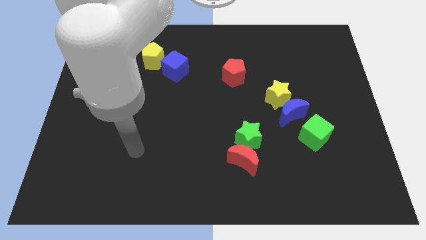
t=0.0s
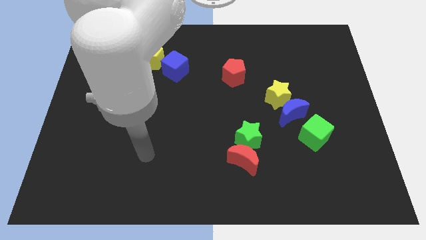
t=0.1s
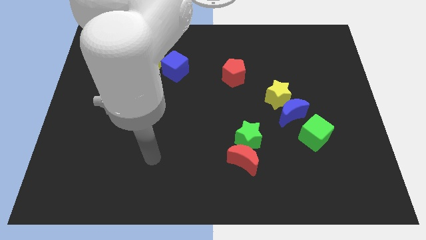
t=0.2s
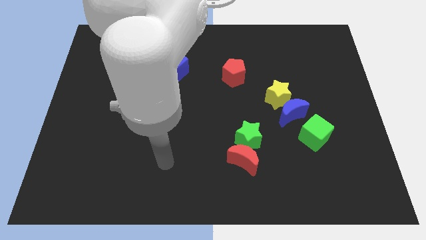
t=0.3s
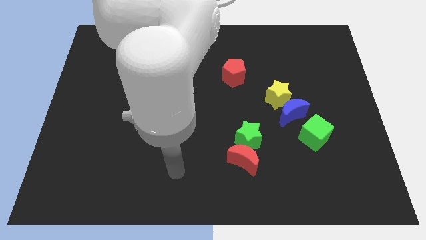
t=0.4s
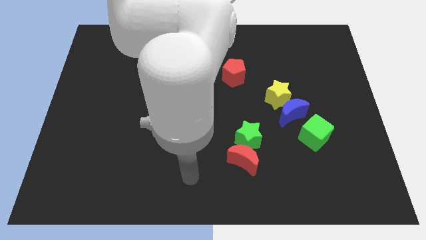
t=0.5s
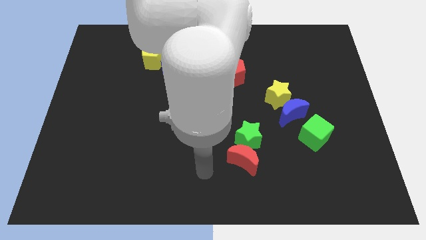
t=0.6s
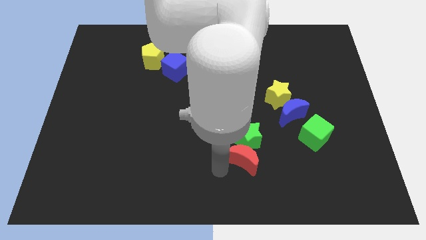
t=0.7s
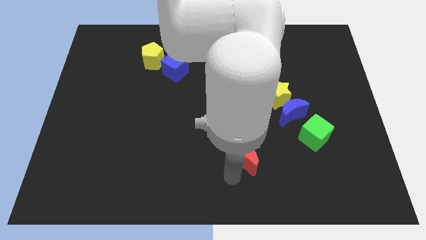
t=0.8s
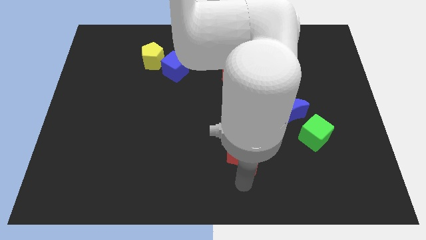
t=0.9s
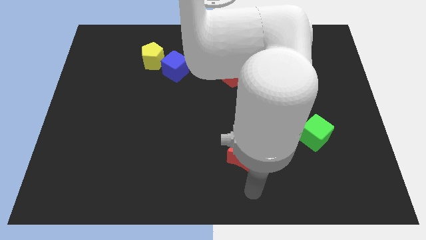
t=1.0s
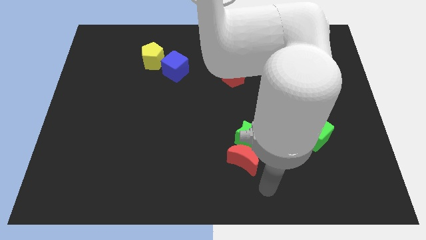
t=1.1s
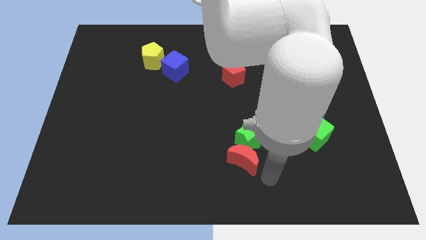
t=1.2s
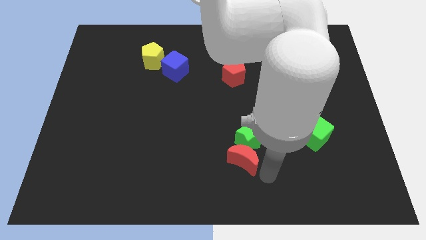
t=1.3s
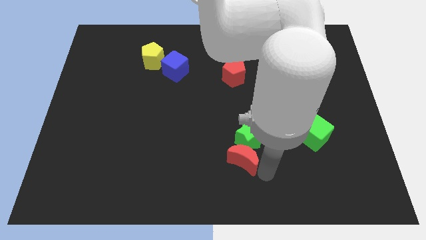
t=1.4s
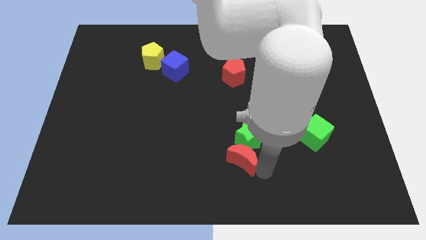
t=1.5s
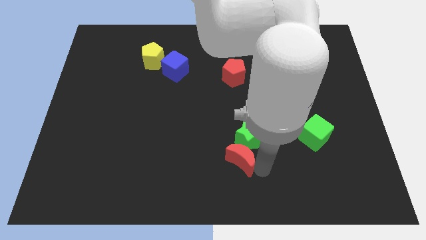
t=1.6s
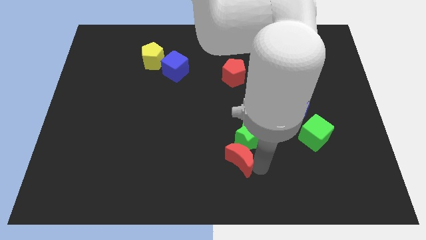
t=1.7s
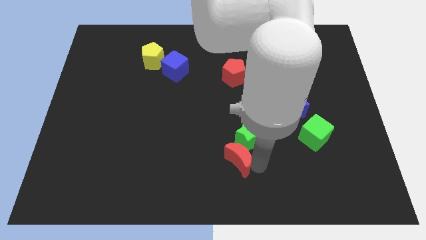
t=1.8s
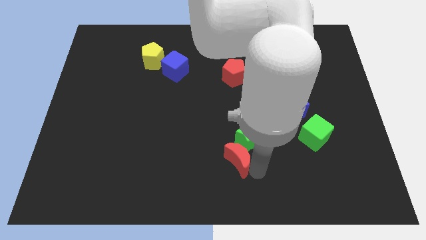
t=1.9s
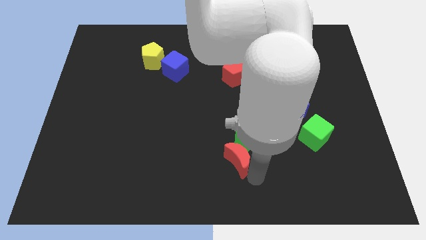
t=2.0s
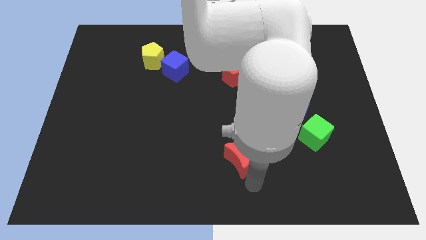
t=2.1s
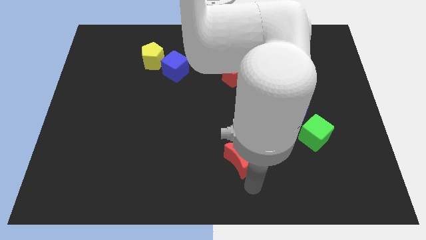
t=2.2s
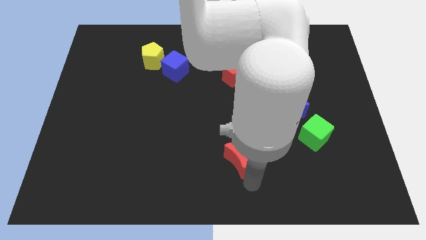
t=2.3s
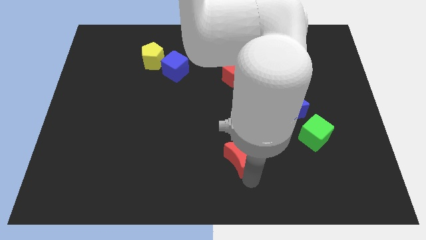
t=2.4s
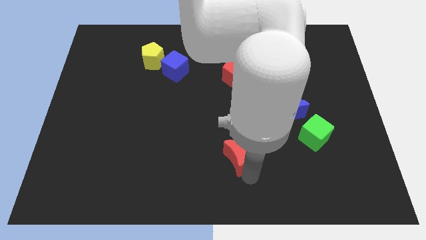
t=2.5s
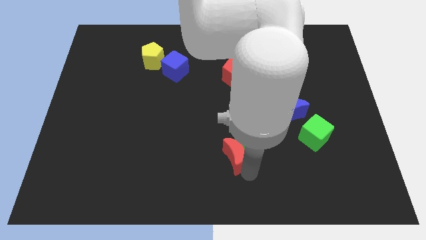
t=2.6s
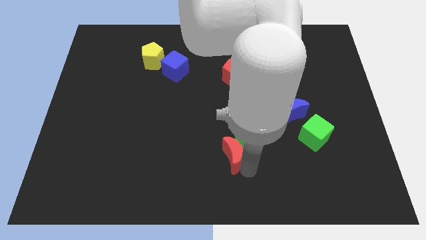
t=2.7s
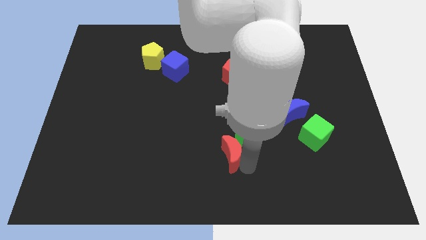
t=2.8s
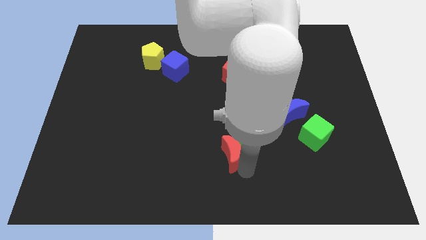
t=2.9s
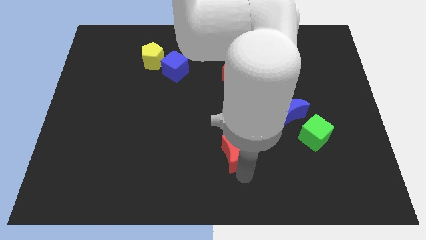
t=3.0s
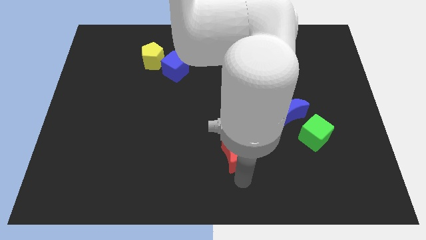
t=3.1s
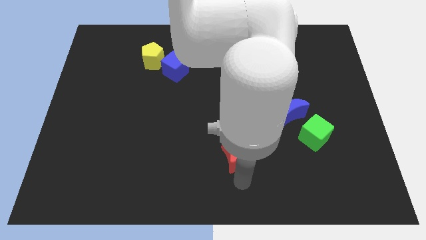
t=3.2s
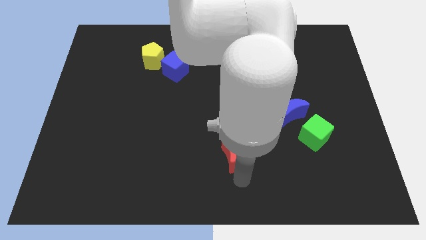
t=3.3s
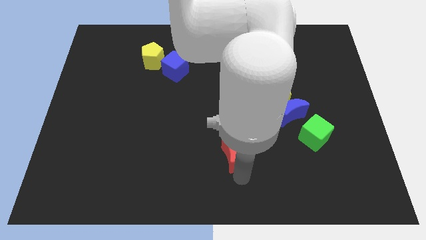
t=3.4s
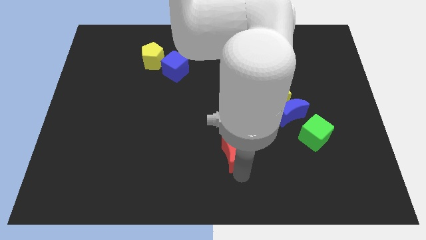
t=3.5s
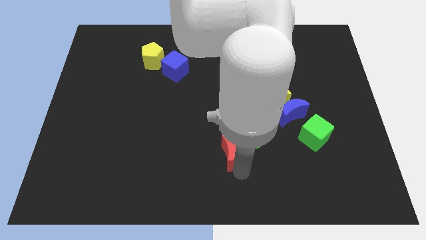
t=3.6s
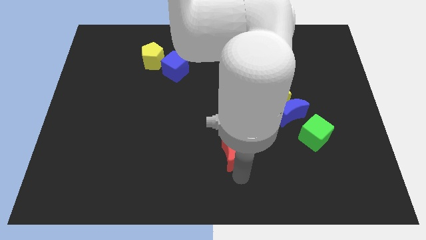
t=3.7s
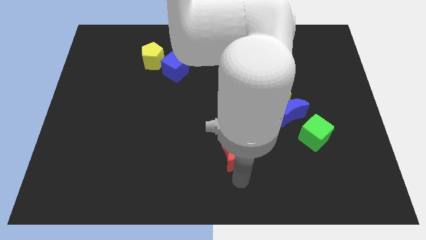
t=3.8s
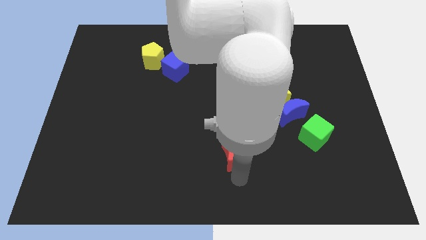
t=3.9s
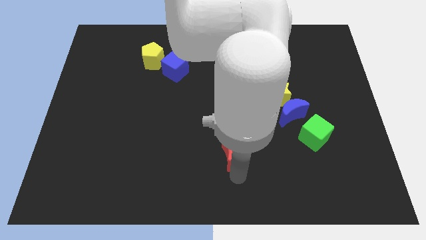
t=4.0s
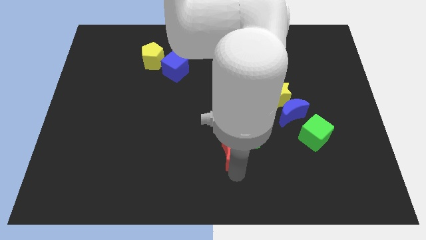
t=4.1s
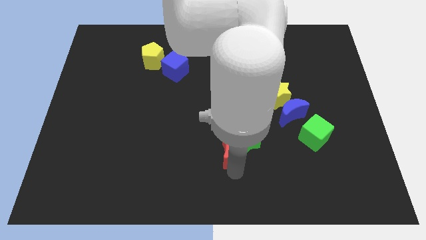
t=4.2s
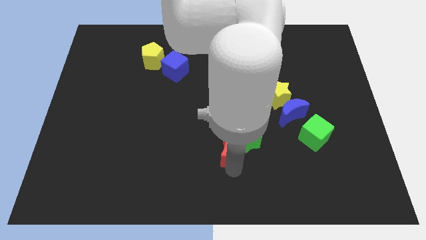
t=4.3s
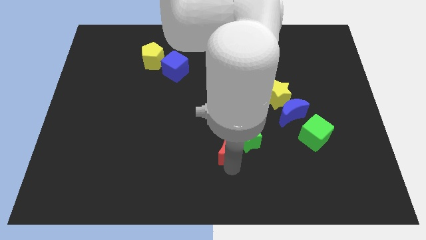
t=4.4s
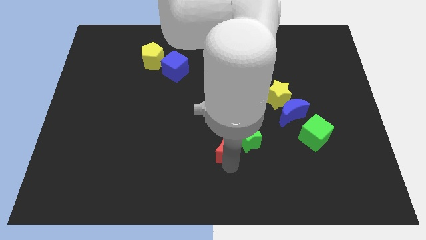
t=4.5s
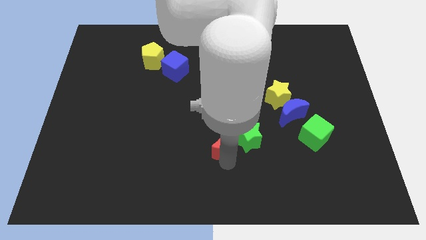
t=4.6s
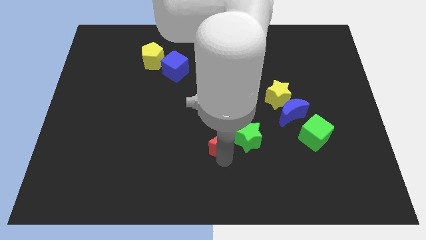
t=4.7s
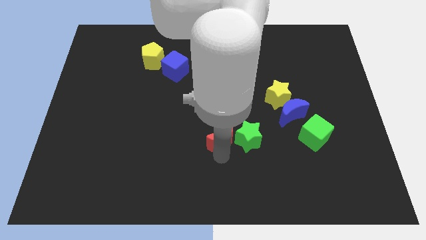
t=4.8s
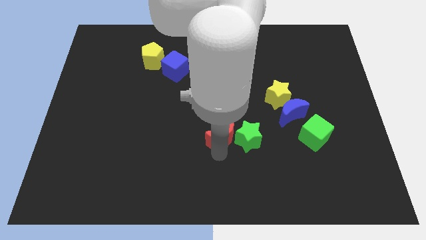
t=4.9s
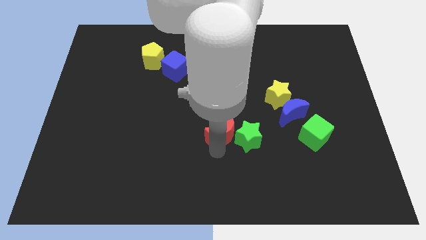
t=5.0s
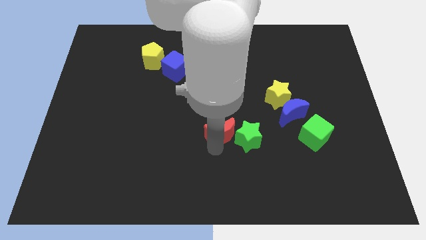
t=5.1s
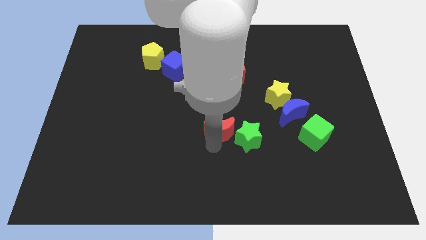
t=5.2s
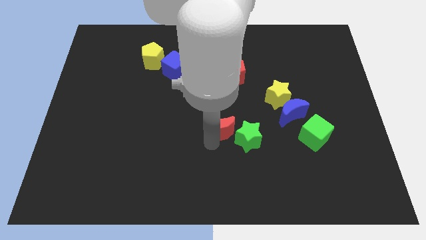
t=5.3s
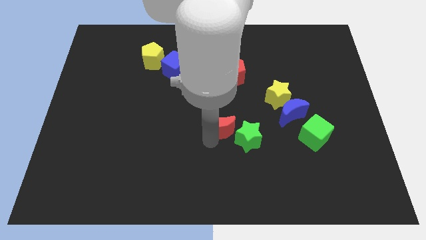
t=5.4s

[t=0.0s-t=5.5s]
slightly move the red moon up

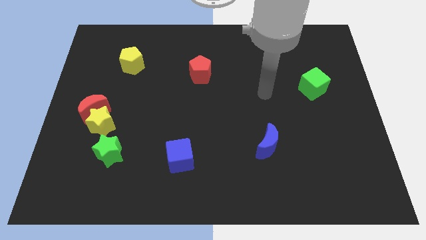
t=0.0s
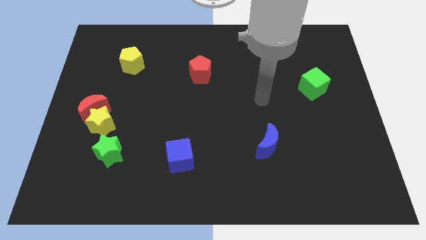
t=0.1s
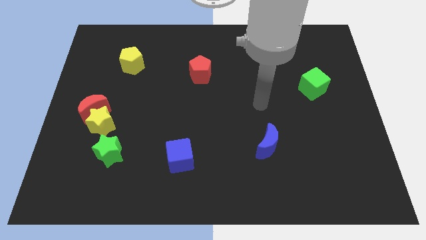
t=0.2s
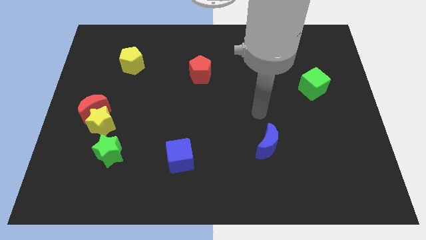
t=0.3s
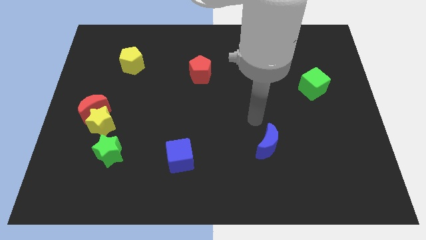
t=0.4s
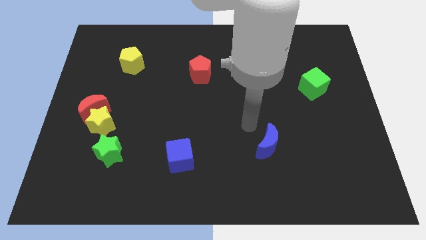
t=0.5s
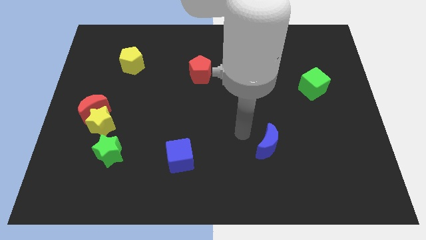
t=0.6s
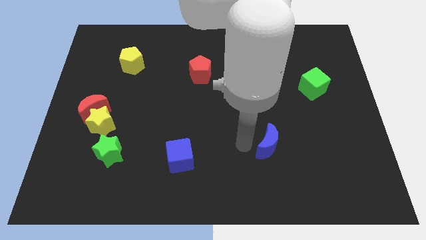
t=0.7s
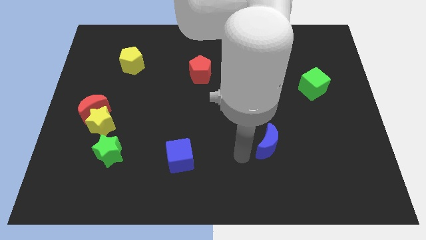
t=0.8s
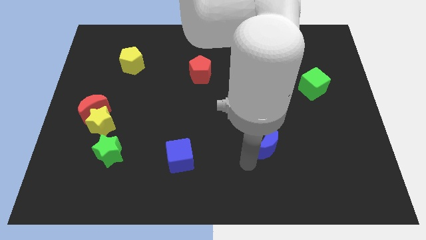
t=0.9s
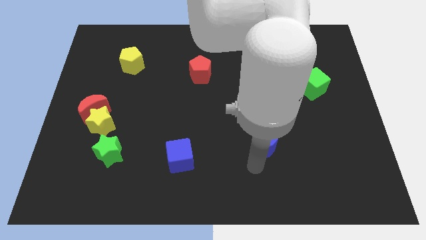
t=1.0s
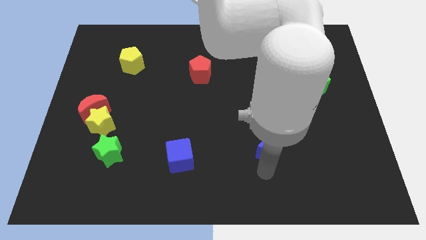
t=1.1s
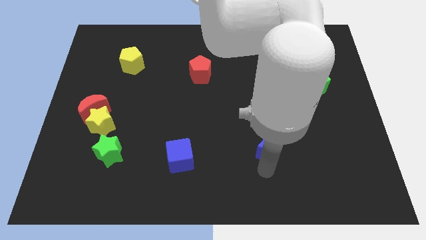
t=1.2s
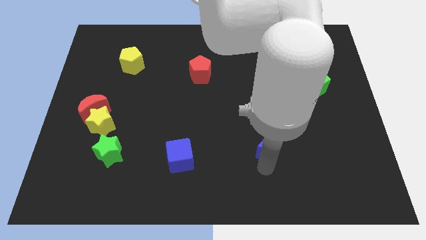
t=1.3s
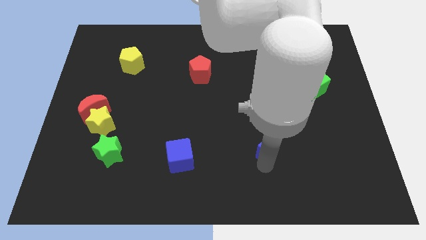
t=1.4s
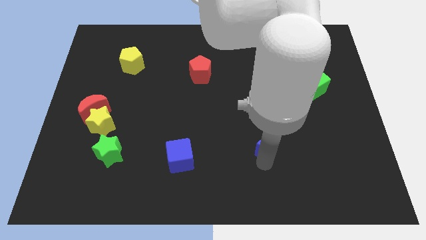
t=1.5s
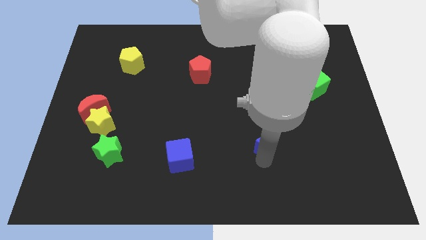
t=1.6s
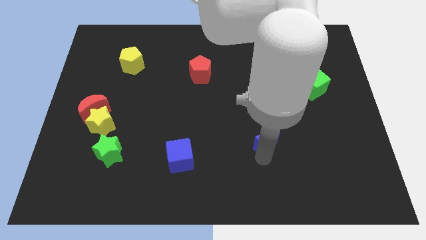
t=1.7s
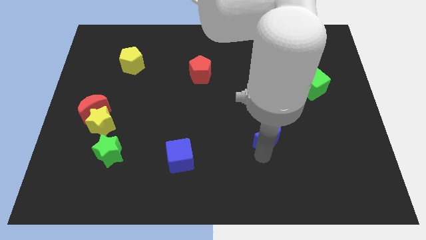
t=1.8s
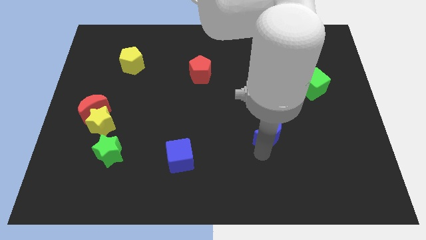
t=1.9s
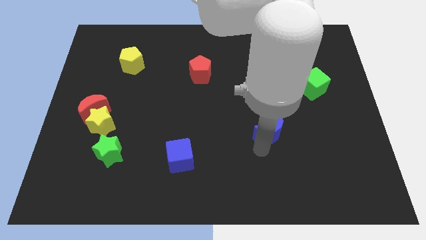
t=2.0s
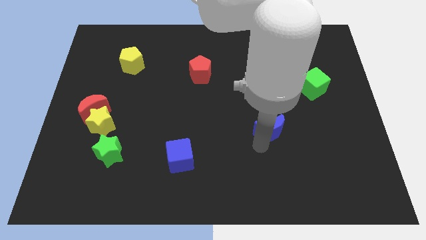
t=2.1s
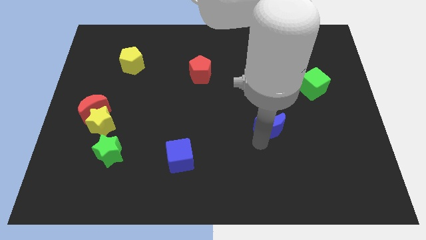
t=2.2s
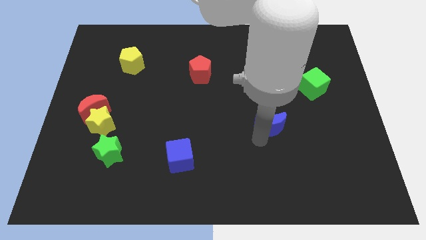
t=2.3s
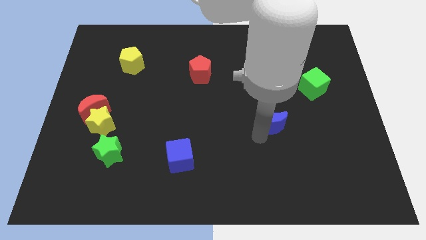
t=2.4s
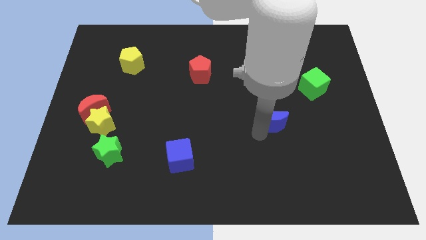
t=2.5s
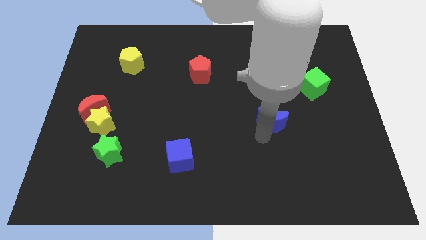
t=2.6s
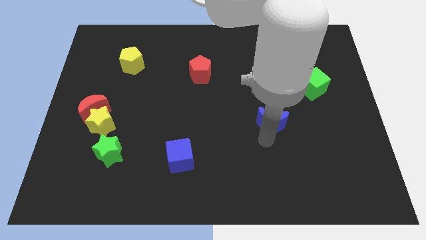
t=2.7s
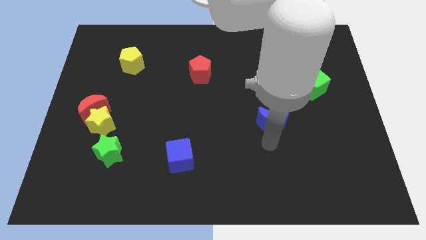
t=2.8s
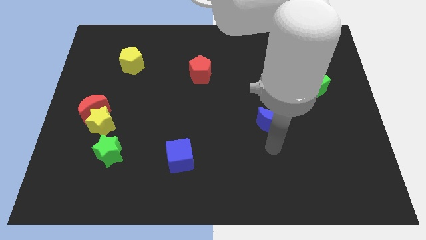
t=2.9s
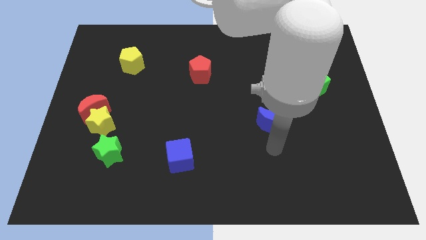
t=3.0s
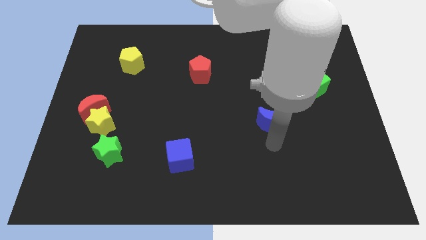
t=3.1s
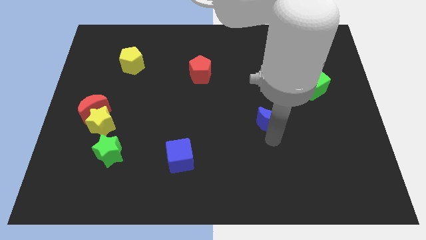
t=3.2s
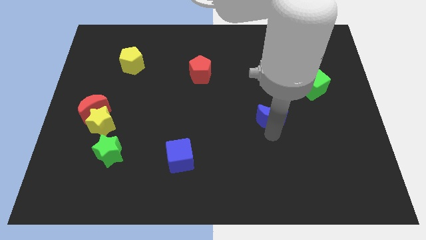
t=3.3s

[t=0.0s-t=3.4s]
slide the blue moon upwards somewhat
